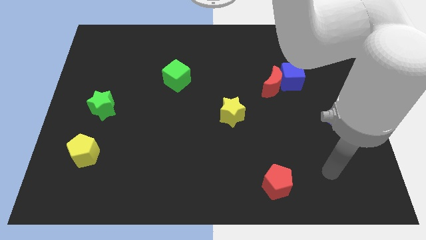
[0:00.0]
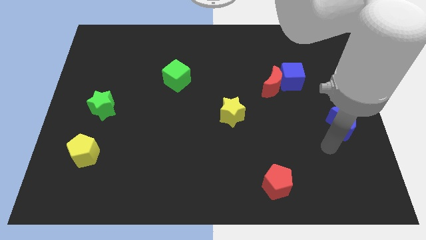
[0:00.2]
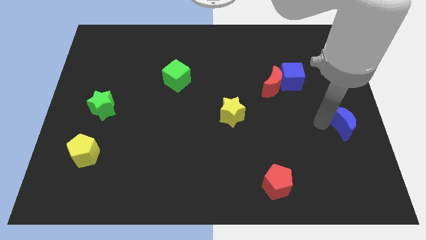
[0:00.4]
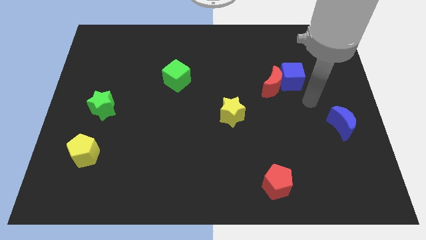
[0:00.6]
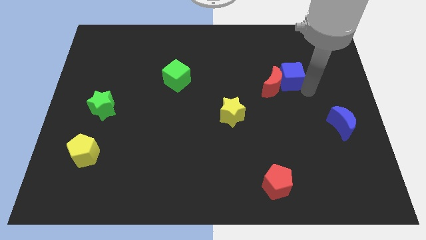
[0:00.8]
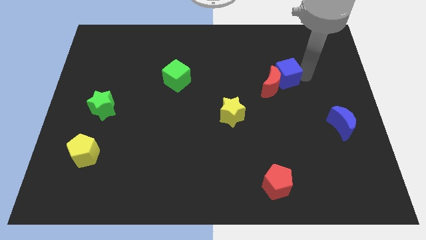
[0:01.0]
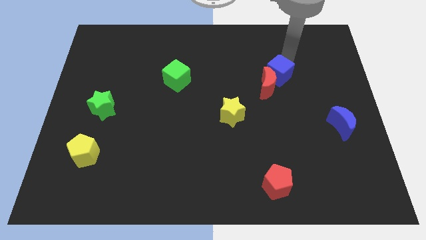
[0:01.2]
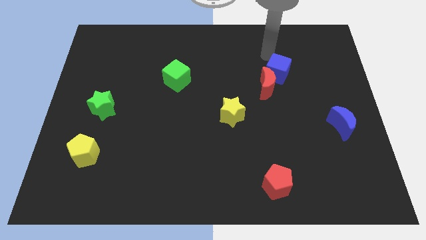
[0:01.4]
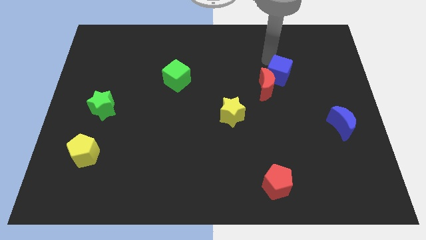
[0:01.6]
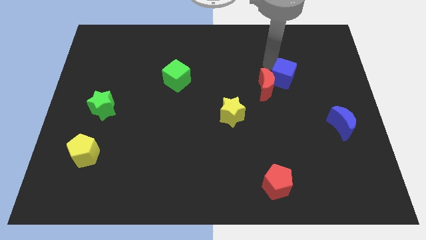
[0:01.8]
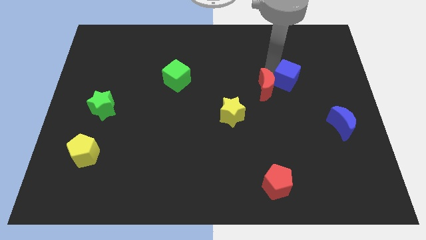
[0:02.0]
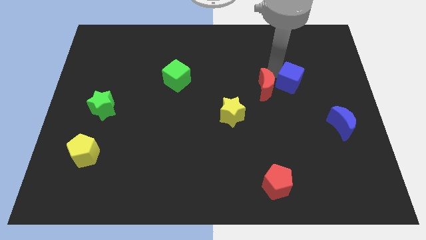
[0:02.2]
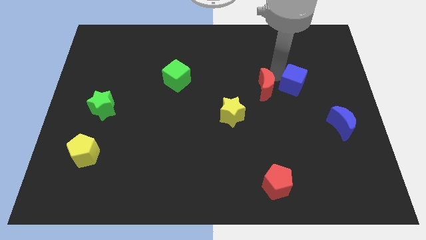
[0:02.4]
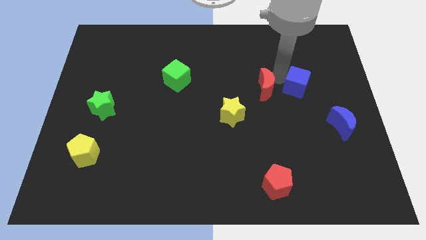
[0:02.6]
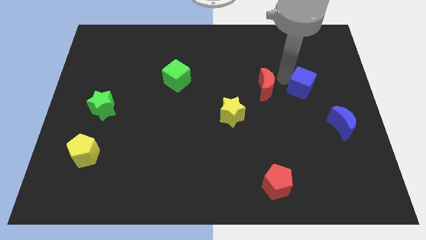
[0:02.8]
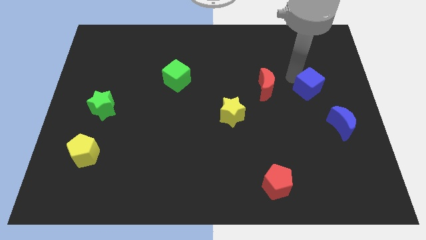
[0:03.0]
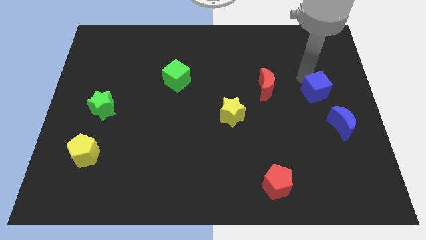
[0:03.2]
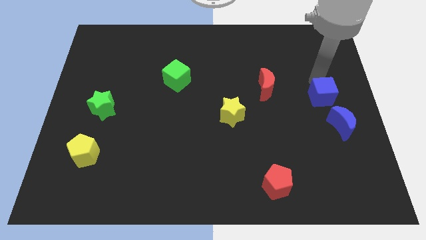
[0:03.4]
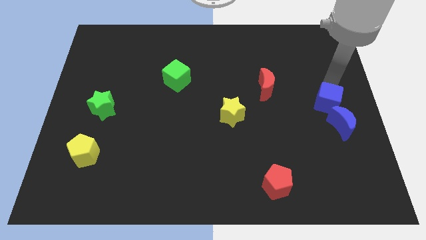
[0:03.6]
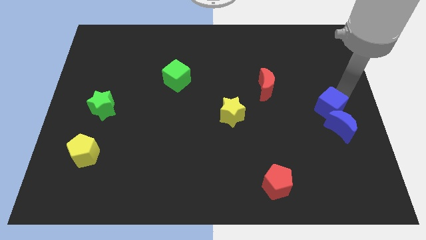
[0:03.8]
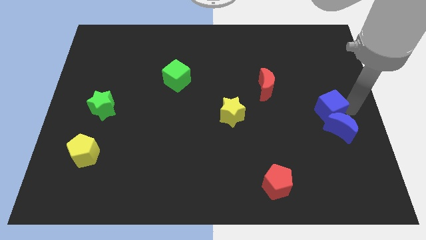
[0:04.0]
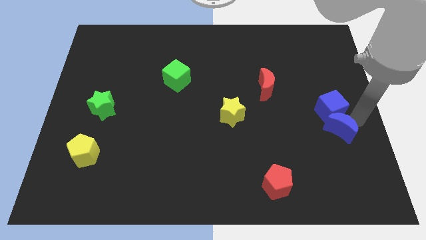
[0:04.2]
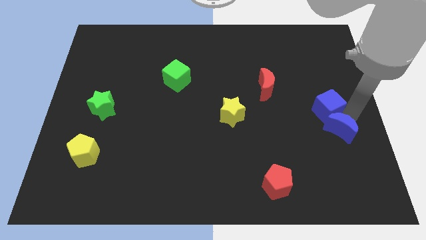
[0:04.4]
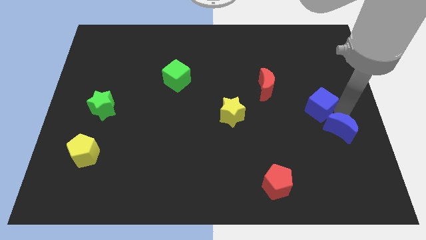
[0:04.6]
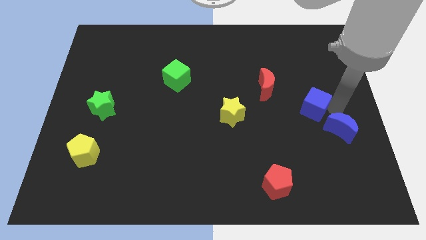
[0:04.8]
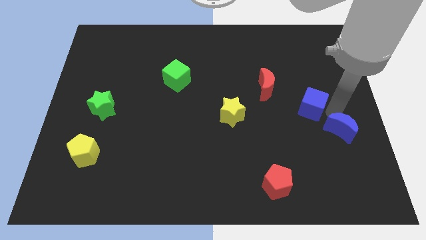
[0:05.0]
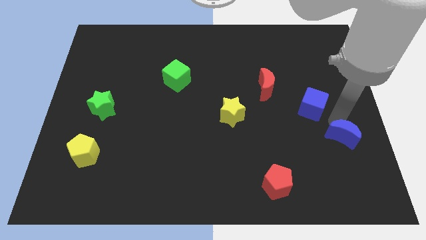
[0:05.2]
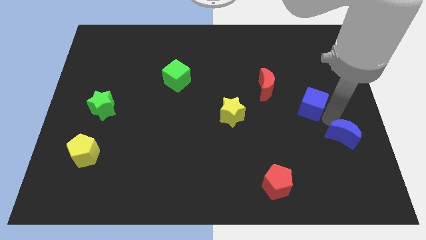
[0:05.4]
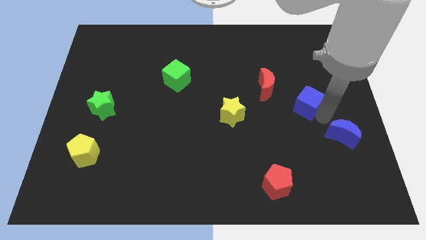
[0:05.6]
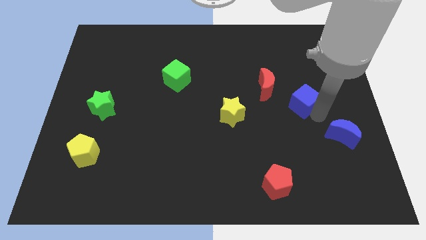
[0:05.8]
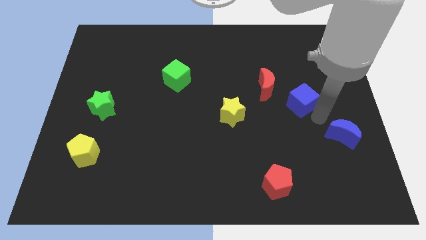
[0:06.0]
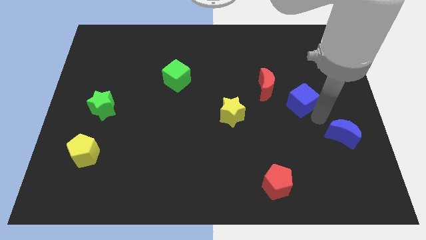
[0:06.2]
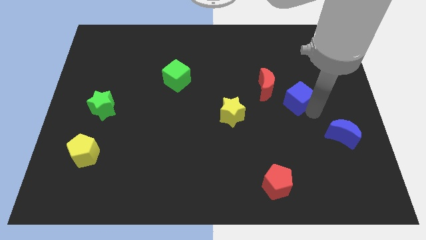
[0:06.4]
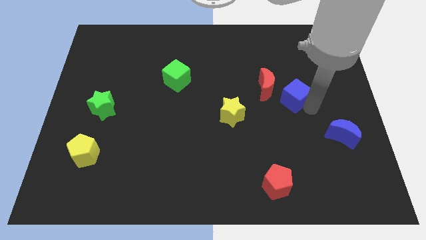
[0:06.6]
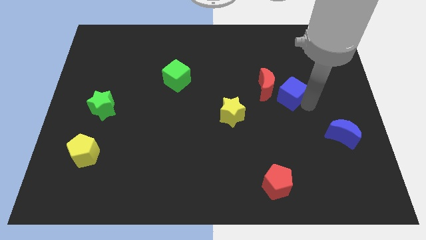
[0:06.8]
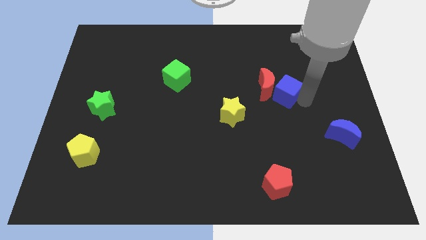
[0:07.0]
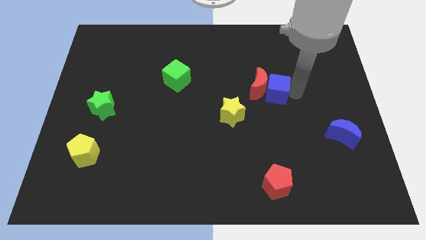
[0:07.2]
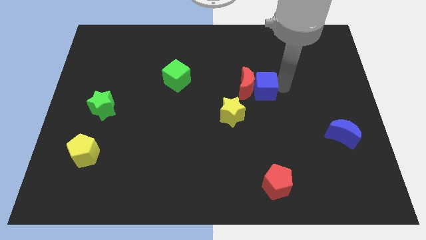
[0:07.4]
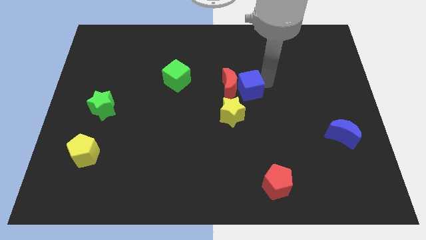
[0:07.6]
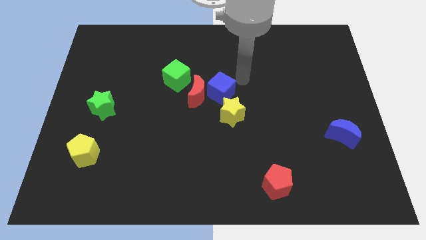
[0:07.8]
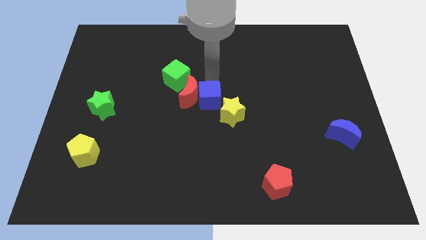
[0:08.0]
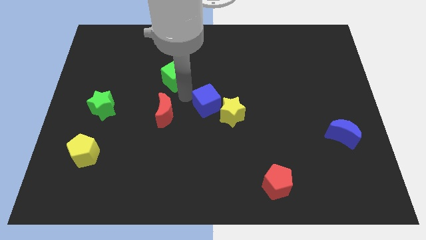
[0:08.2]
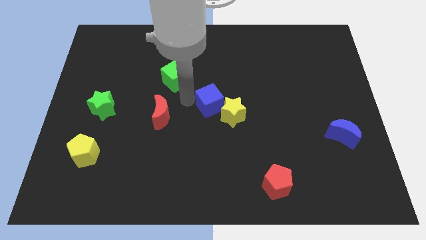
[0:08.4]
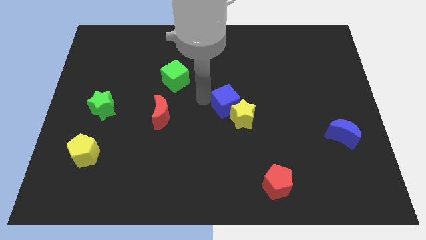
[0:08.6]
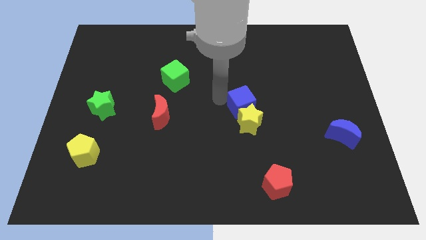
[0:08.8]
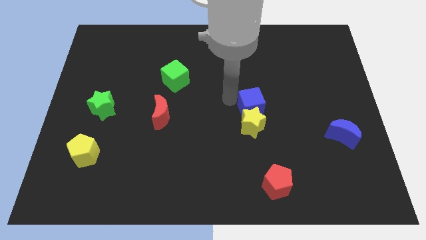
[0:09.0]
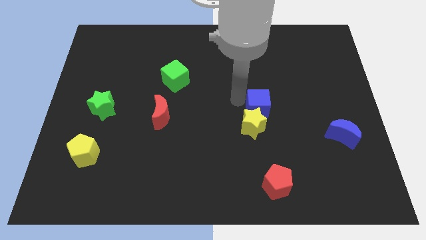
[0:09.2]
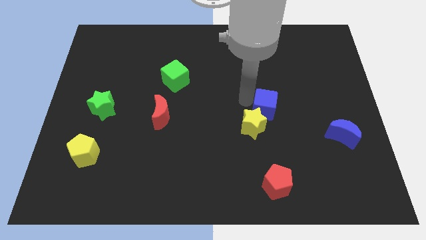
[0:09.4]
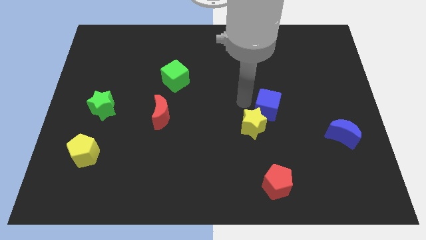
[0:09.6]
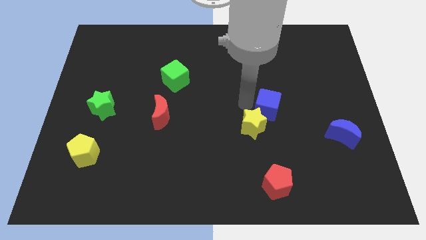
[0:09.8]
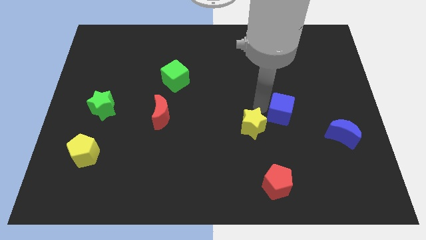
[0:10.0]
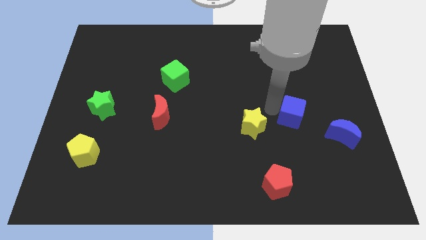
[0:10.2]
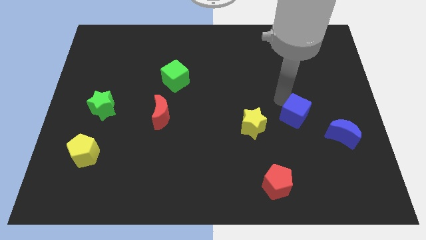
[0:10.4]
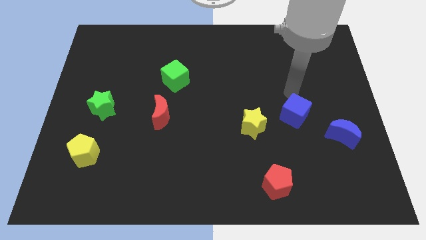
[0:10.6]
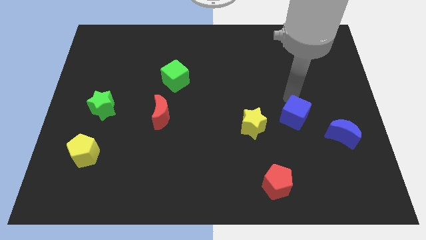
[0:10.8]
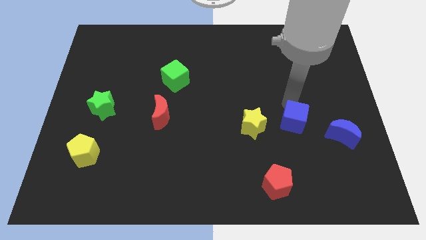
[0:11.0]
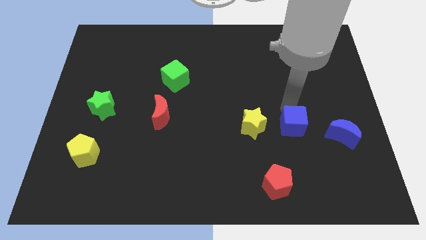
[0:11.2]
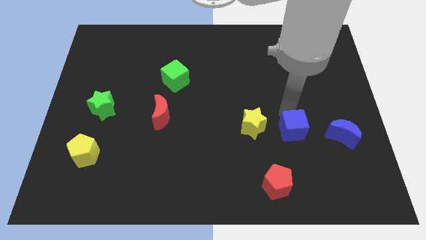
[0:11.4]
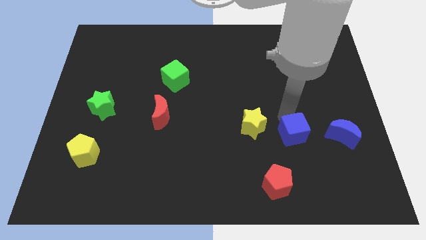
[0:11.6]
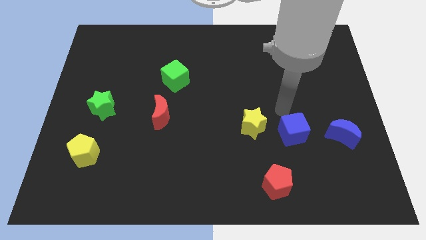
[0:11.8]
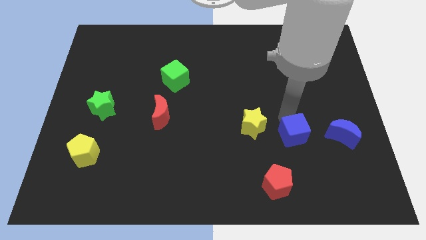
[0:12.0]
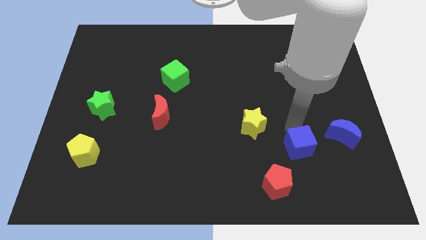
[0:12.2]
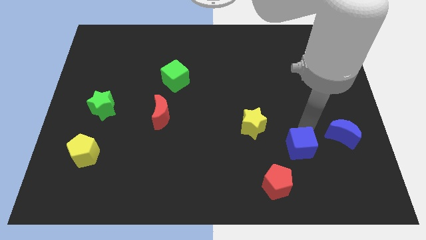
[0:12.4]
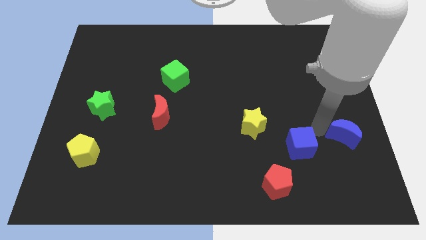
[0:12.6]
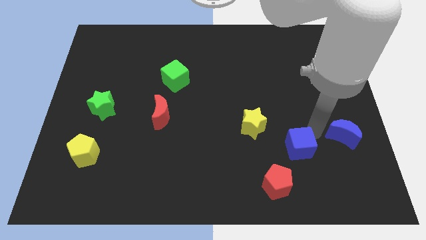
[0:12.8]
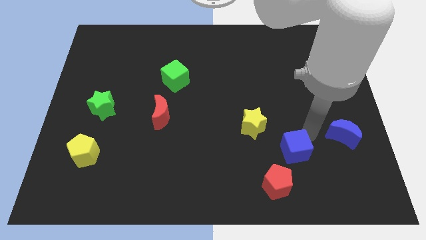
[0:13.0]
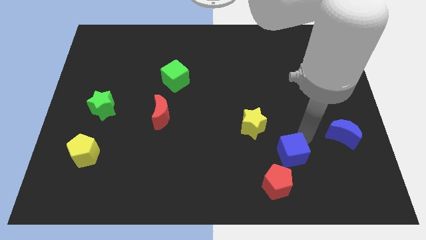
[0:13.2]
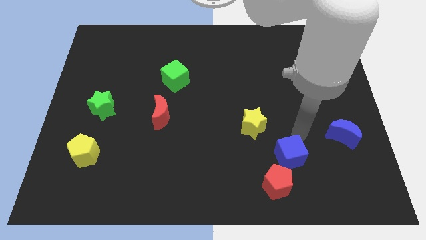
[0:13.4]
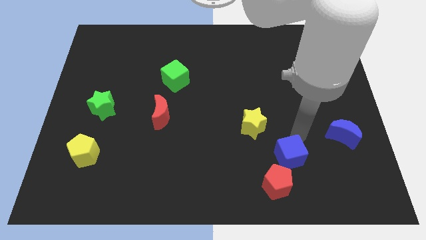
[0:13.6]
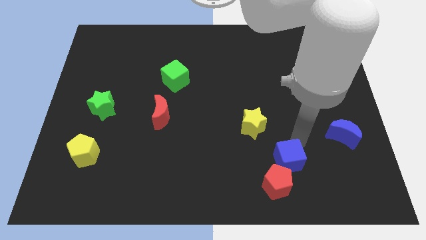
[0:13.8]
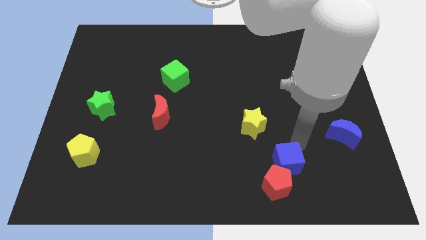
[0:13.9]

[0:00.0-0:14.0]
slide the blue cube towards the red pentagon

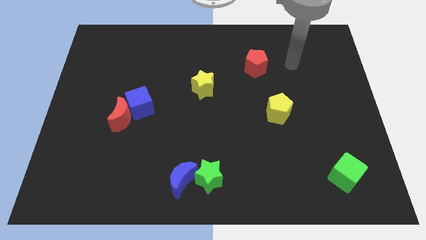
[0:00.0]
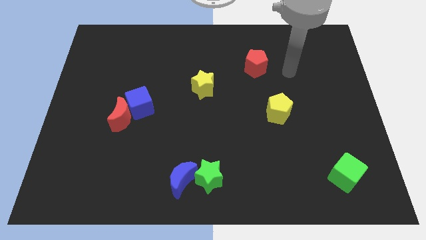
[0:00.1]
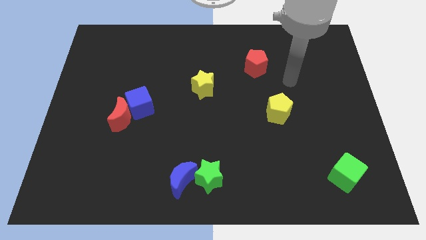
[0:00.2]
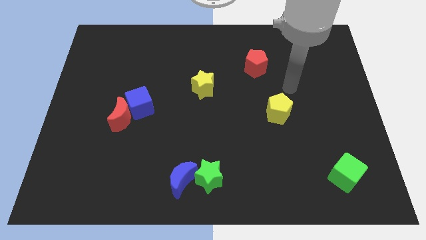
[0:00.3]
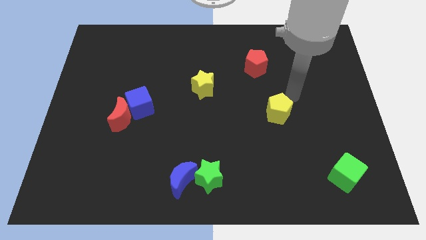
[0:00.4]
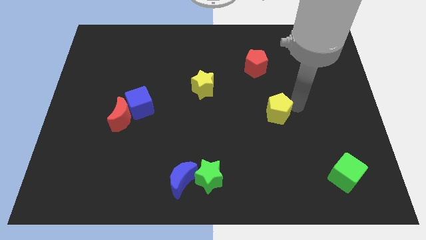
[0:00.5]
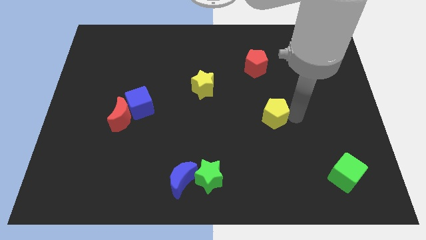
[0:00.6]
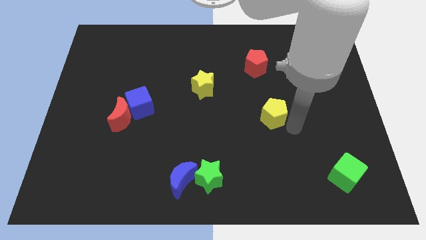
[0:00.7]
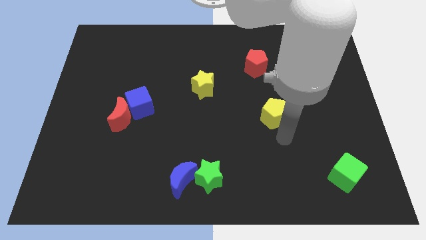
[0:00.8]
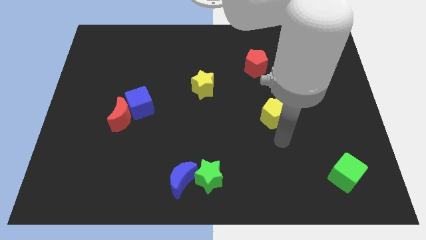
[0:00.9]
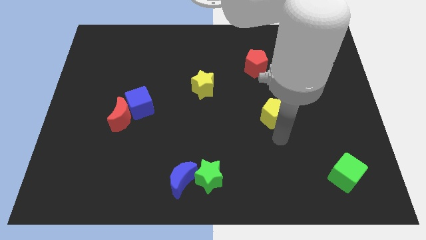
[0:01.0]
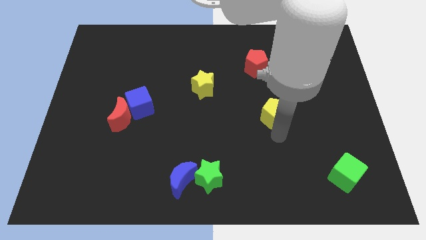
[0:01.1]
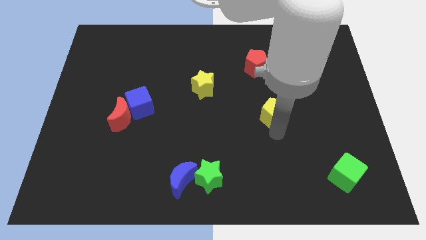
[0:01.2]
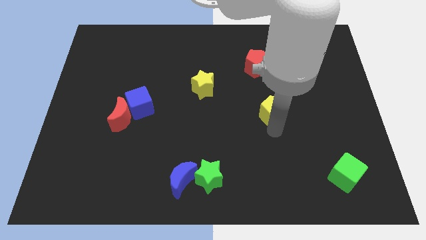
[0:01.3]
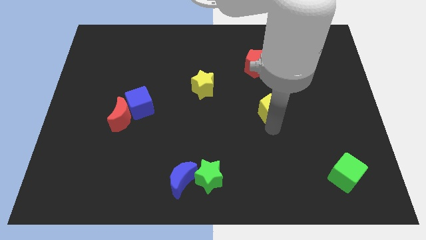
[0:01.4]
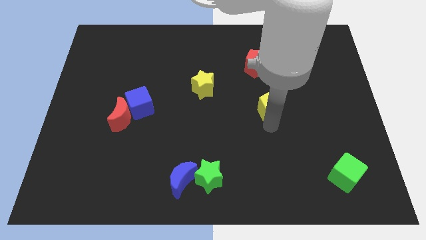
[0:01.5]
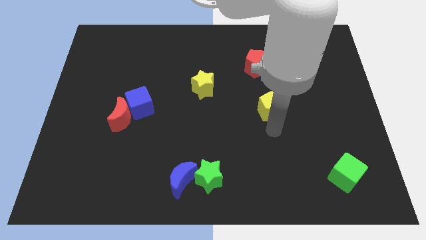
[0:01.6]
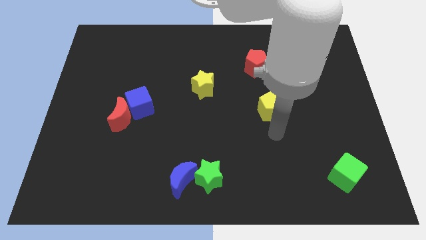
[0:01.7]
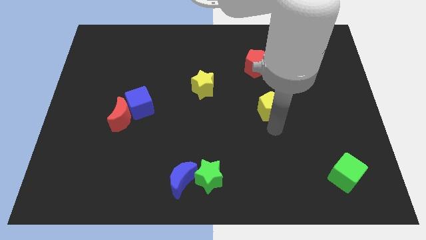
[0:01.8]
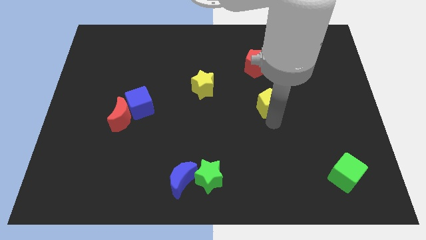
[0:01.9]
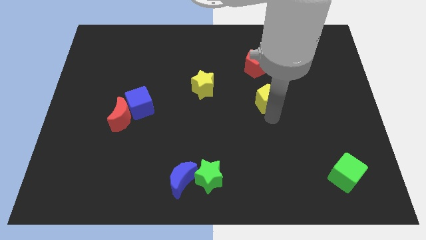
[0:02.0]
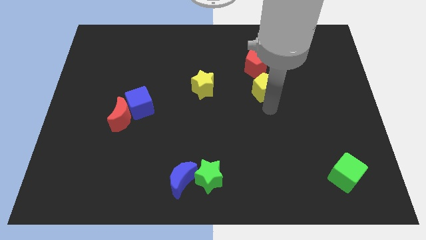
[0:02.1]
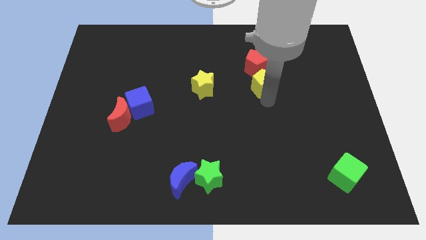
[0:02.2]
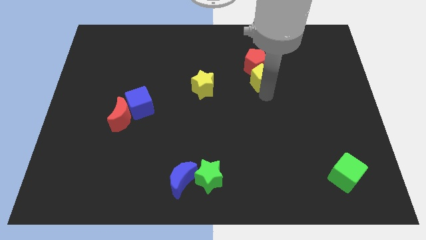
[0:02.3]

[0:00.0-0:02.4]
put the yellow pentagon next to the red pentagon
